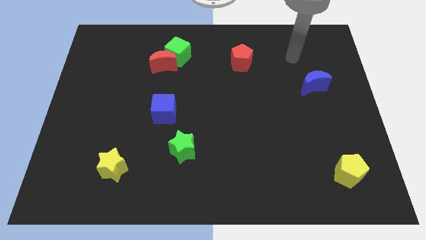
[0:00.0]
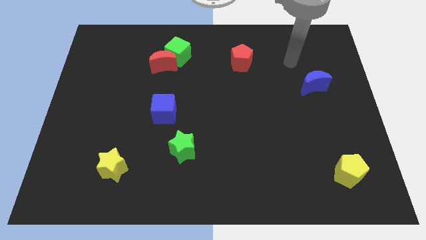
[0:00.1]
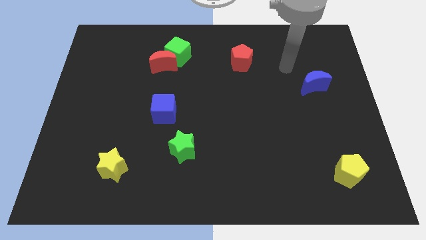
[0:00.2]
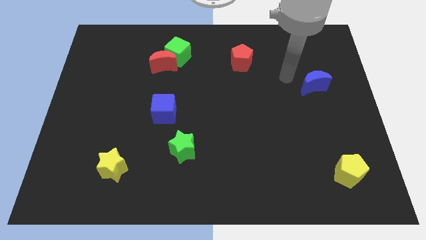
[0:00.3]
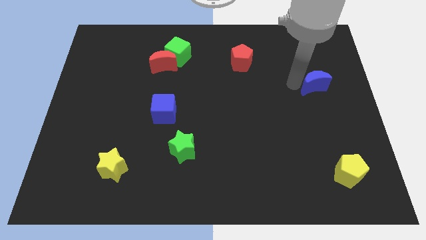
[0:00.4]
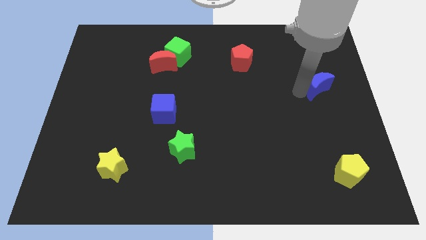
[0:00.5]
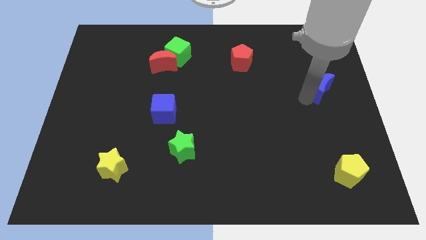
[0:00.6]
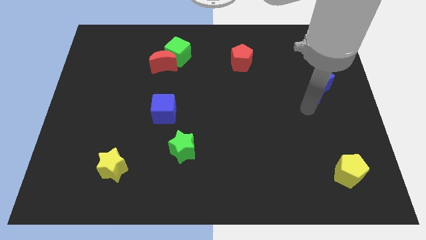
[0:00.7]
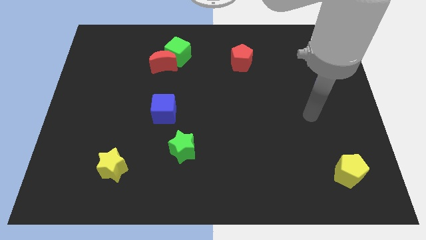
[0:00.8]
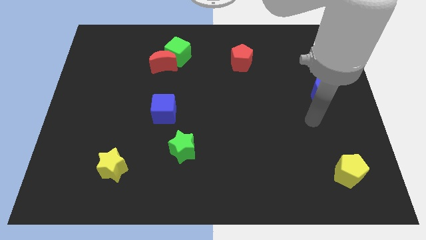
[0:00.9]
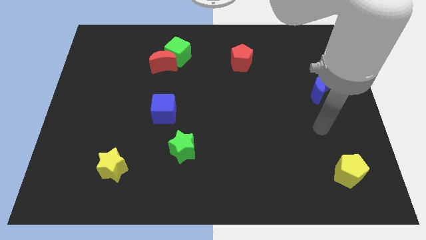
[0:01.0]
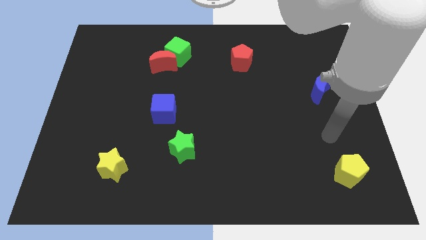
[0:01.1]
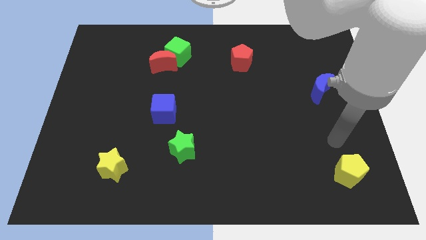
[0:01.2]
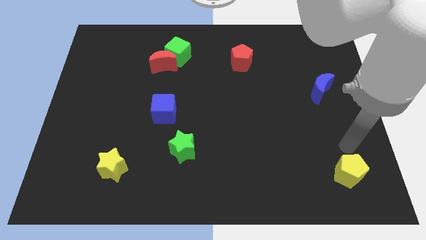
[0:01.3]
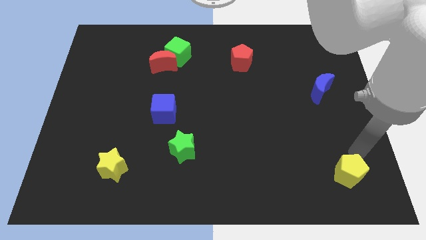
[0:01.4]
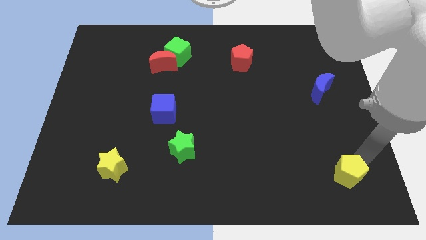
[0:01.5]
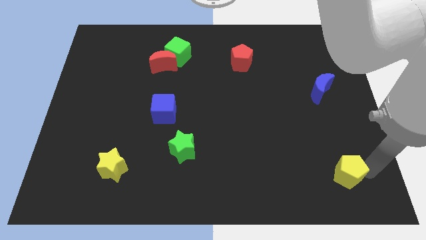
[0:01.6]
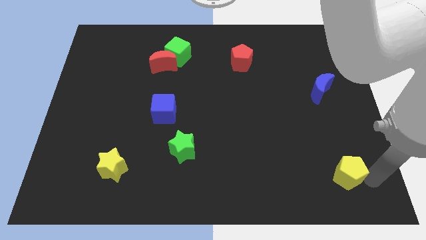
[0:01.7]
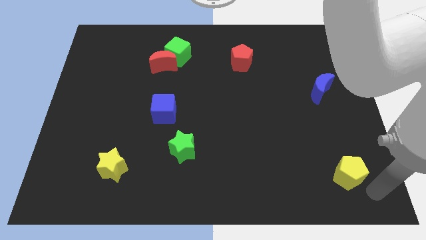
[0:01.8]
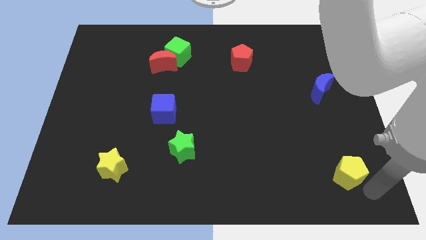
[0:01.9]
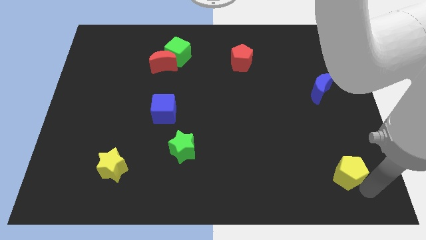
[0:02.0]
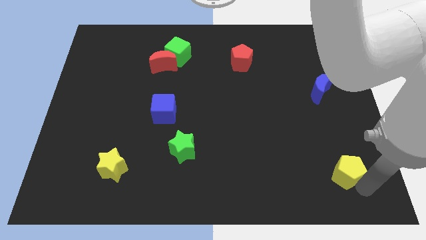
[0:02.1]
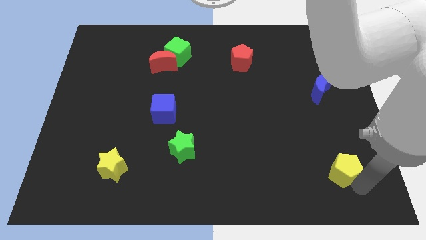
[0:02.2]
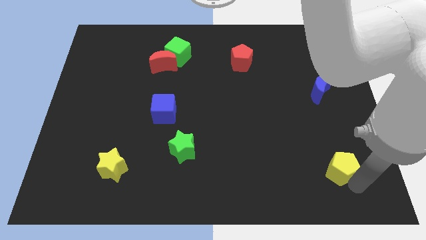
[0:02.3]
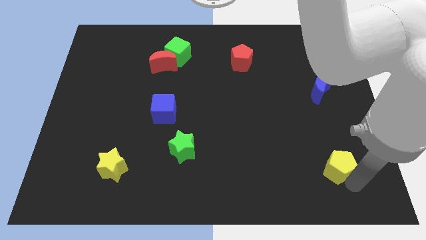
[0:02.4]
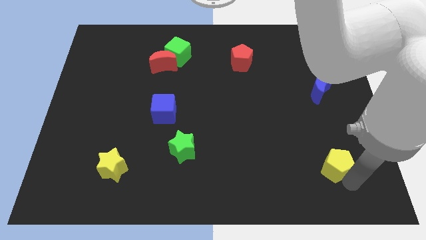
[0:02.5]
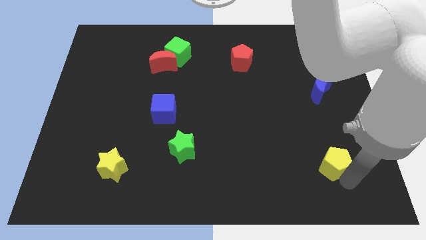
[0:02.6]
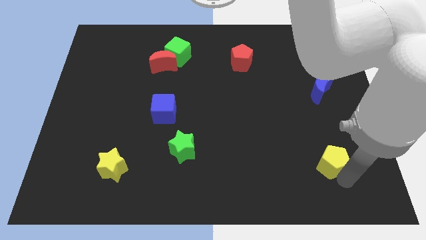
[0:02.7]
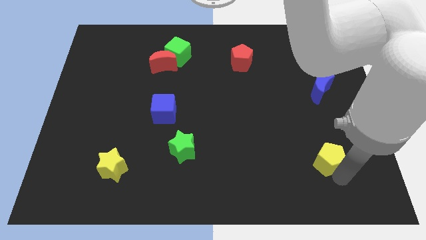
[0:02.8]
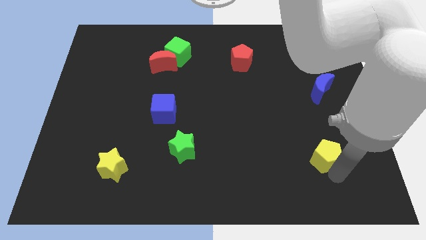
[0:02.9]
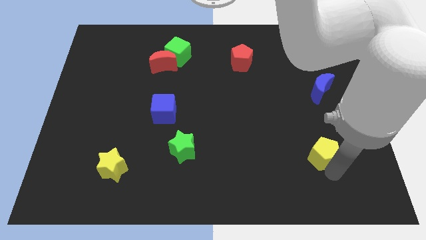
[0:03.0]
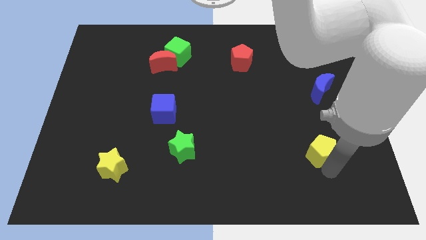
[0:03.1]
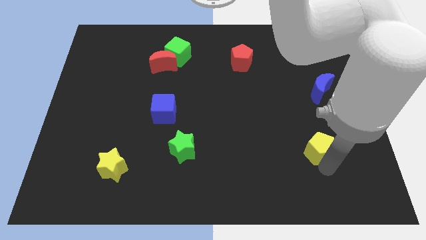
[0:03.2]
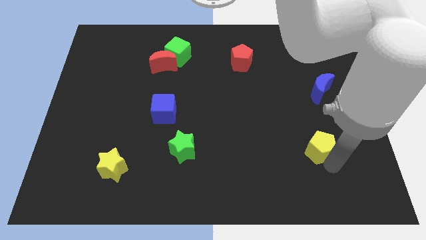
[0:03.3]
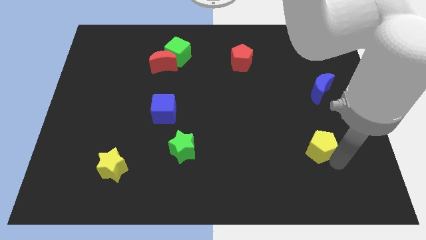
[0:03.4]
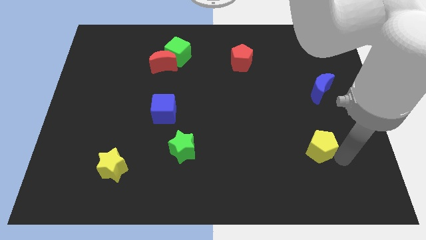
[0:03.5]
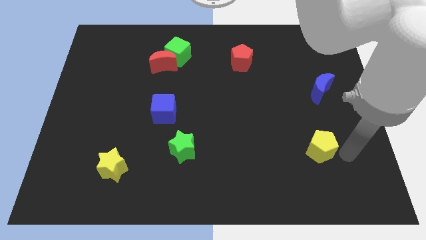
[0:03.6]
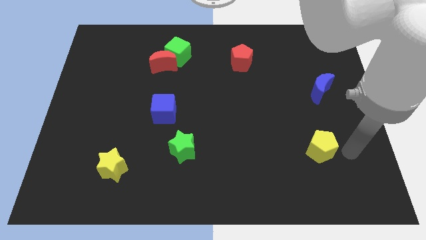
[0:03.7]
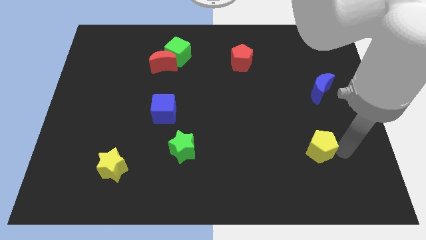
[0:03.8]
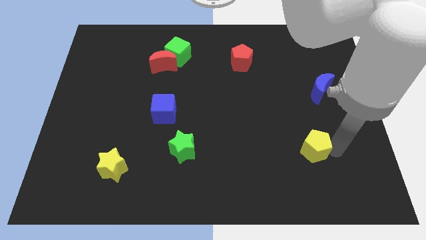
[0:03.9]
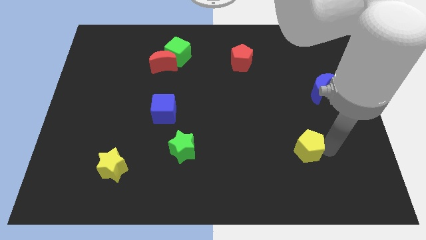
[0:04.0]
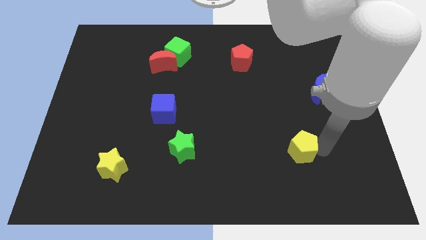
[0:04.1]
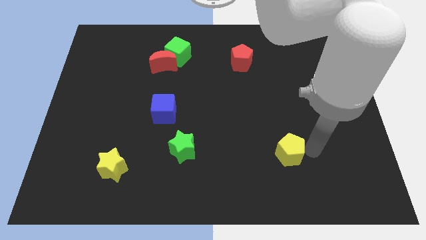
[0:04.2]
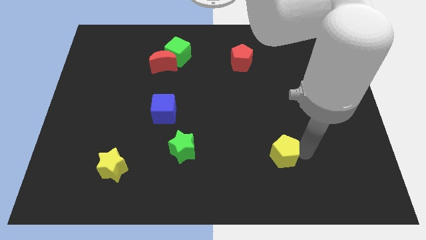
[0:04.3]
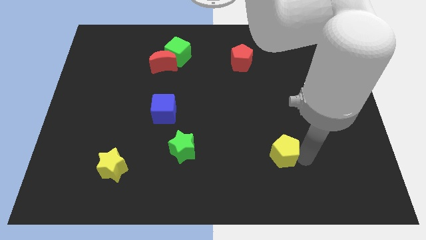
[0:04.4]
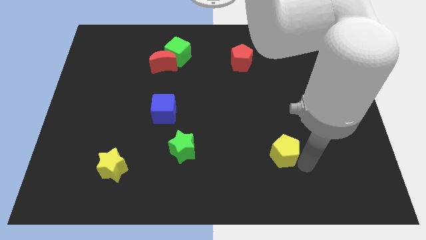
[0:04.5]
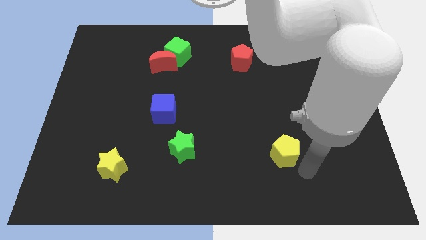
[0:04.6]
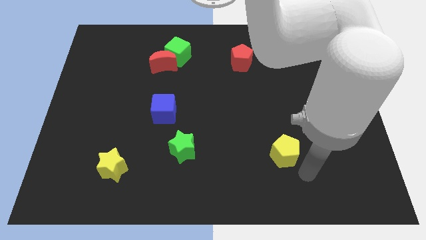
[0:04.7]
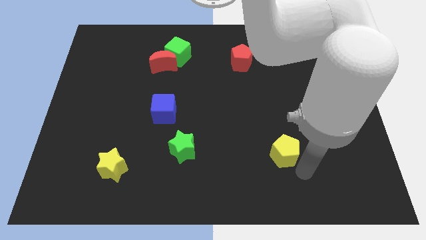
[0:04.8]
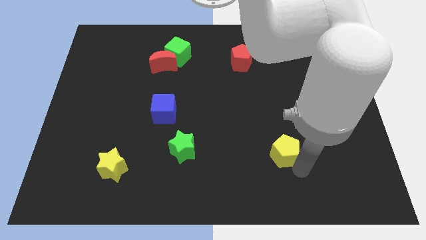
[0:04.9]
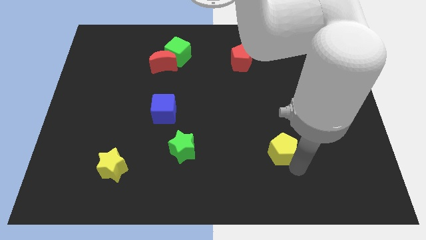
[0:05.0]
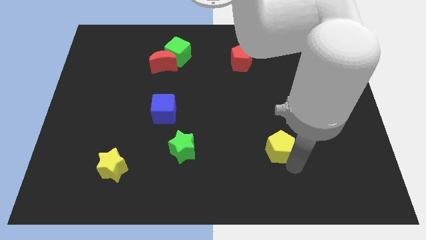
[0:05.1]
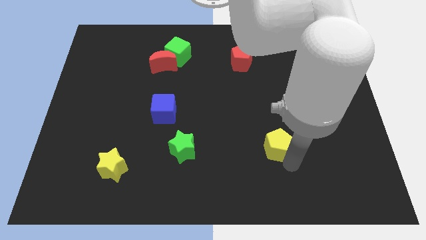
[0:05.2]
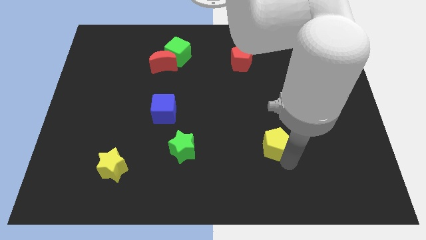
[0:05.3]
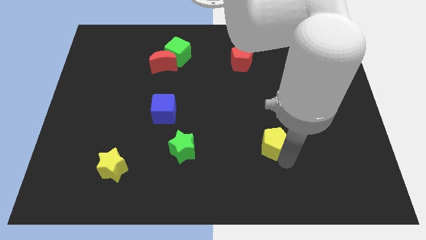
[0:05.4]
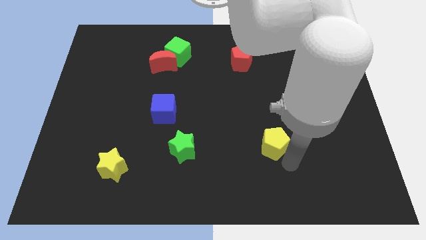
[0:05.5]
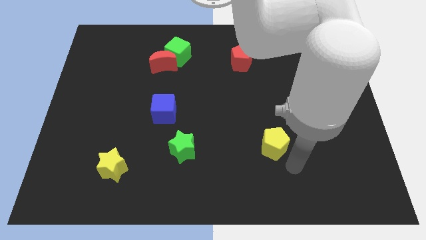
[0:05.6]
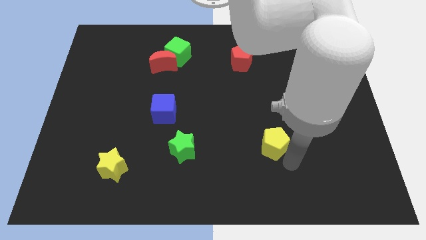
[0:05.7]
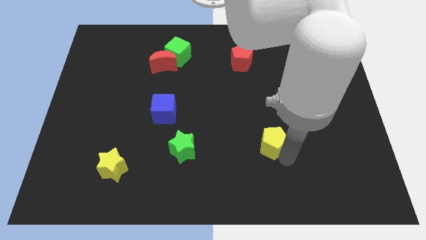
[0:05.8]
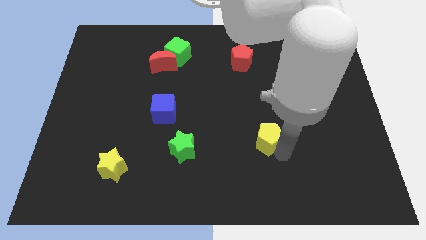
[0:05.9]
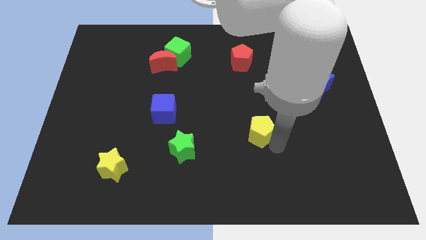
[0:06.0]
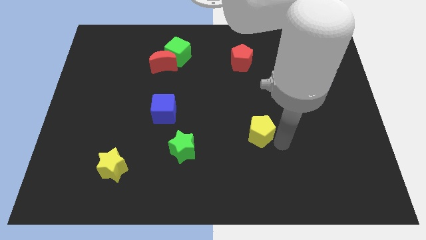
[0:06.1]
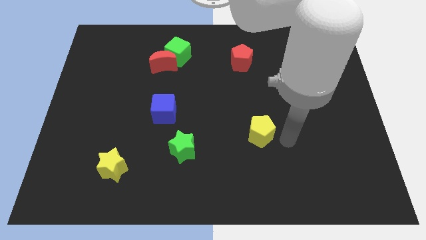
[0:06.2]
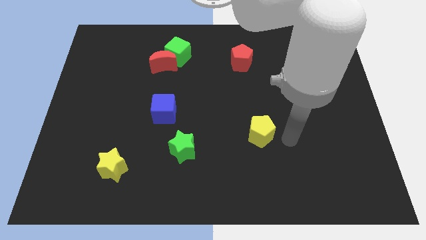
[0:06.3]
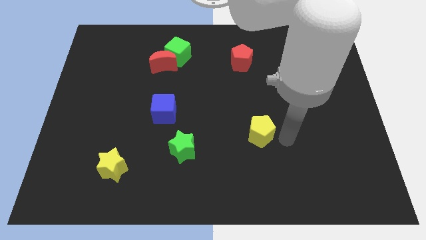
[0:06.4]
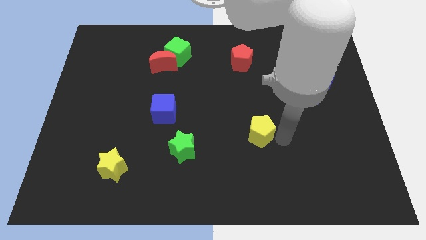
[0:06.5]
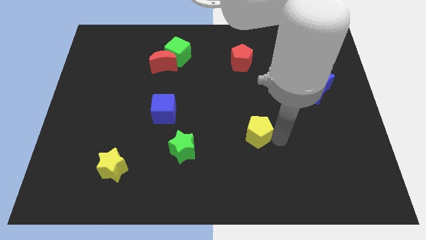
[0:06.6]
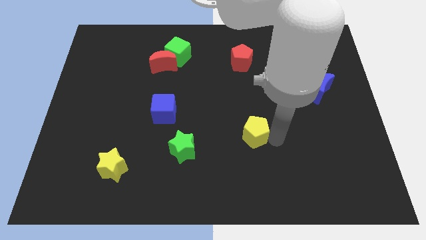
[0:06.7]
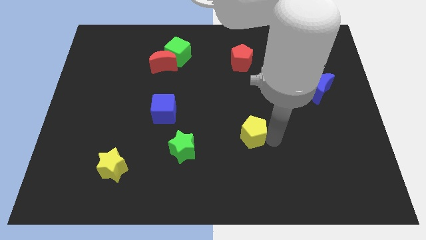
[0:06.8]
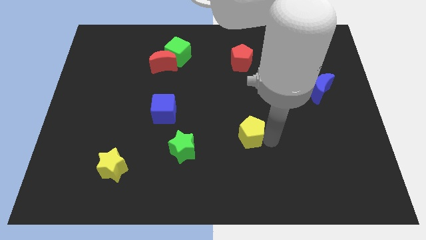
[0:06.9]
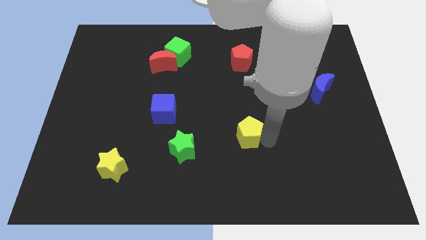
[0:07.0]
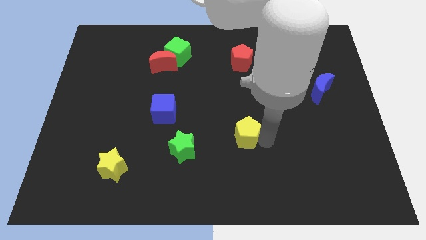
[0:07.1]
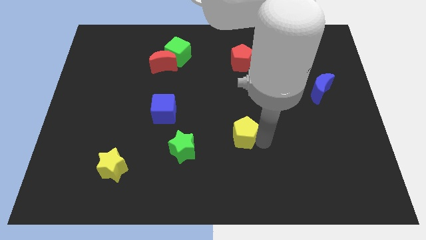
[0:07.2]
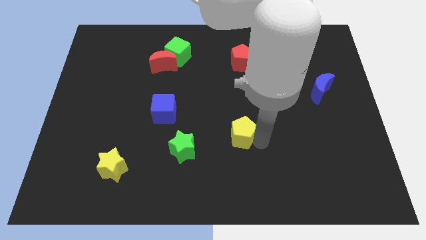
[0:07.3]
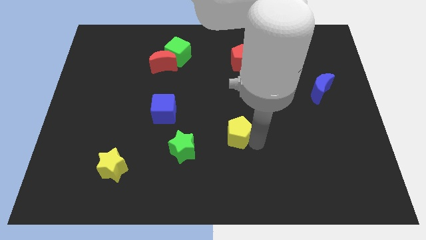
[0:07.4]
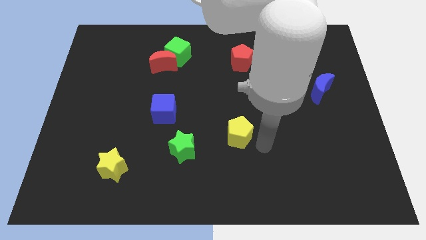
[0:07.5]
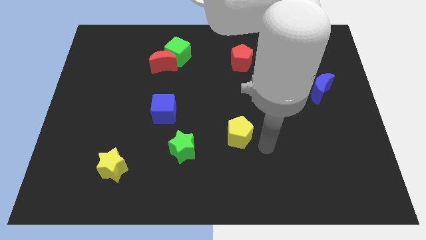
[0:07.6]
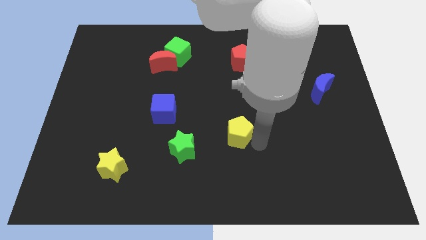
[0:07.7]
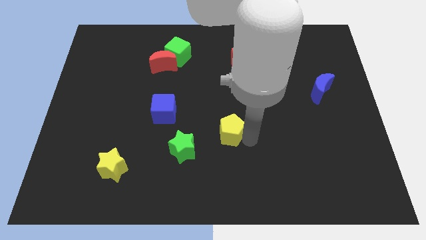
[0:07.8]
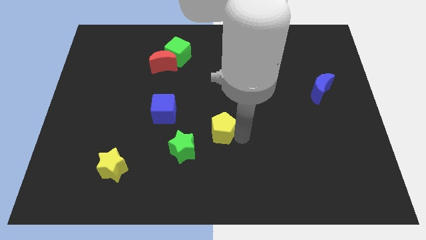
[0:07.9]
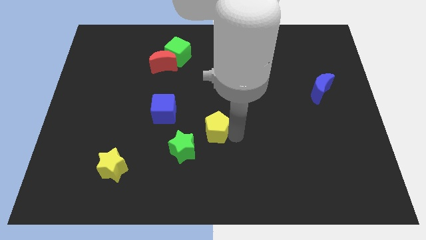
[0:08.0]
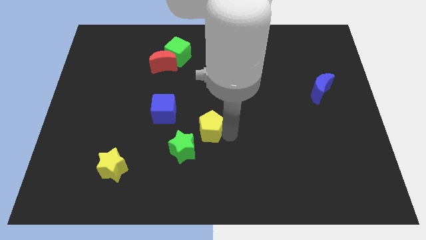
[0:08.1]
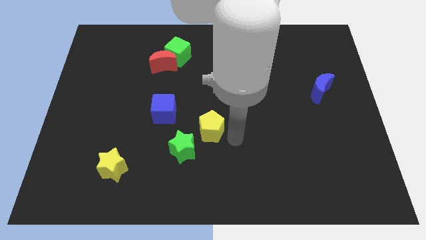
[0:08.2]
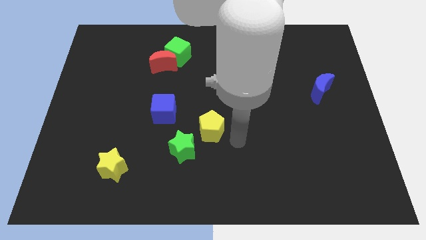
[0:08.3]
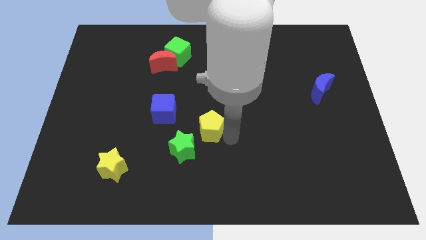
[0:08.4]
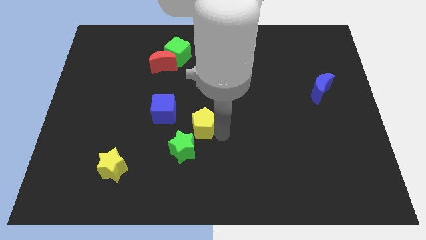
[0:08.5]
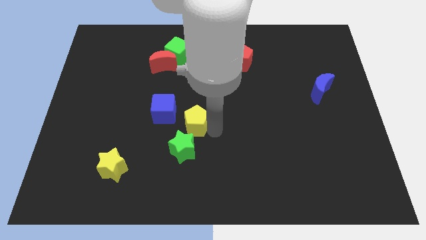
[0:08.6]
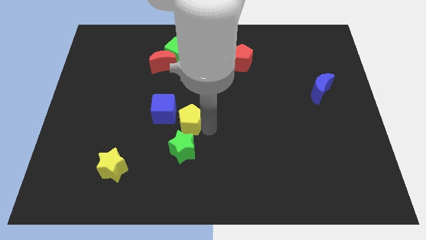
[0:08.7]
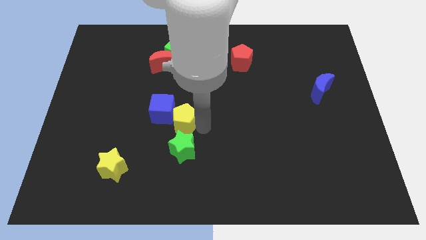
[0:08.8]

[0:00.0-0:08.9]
push the yellow pentagon to the blue cube
